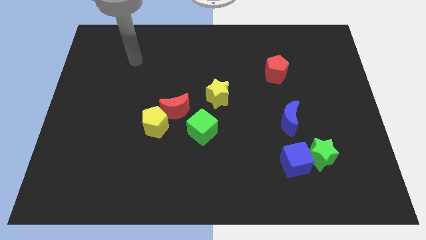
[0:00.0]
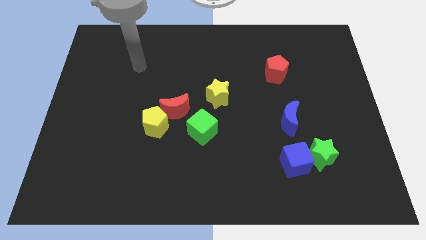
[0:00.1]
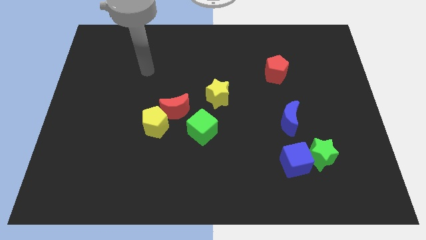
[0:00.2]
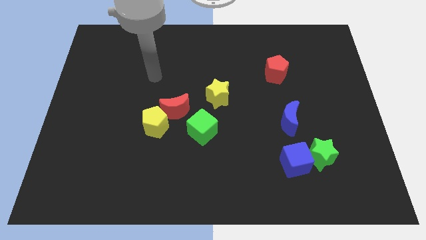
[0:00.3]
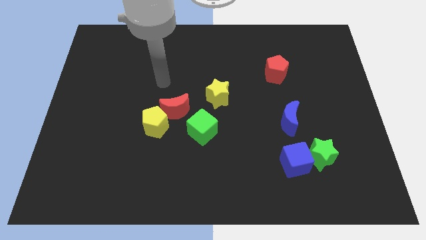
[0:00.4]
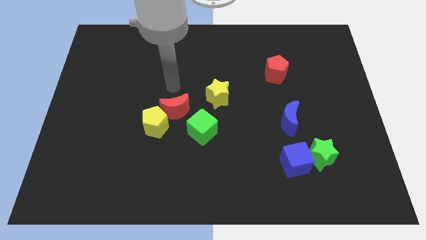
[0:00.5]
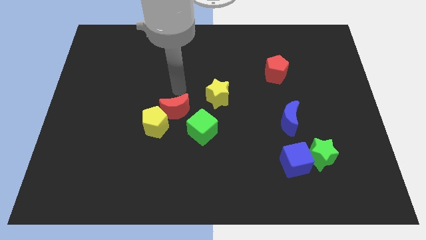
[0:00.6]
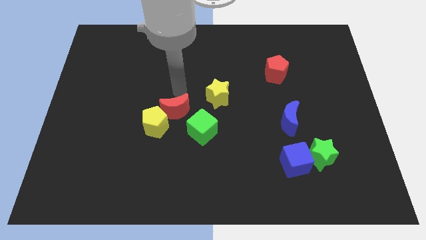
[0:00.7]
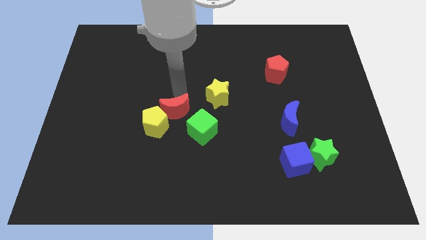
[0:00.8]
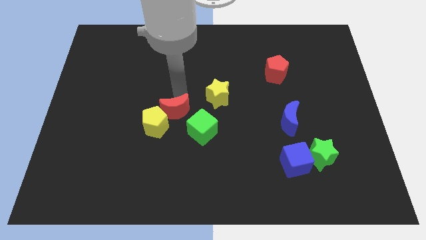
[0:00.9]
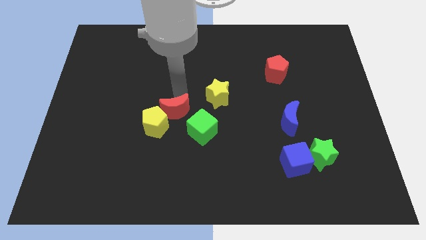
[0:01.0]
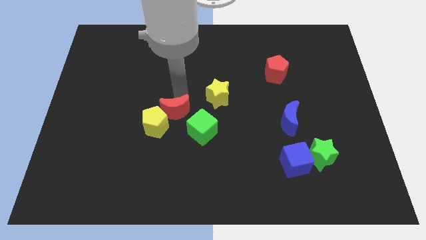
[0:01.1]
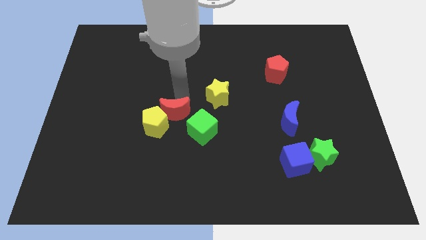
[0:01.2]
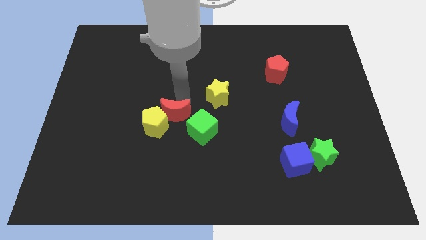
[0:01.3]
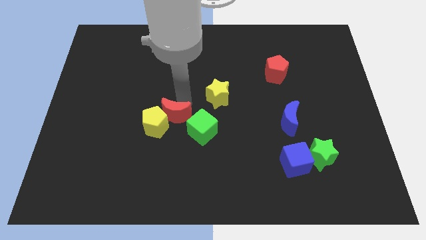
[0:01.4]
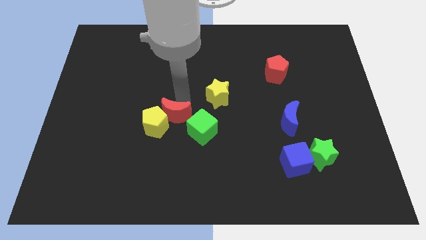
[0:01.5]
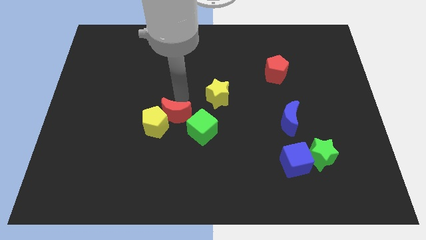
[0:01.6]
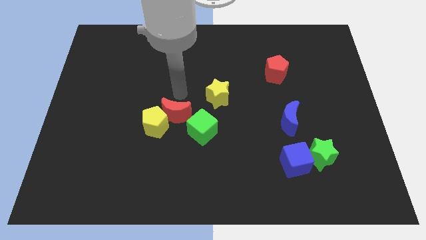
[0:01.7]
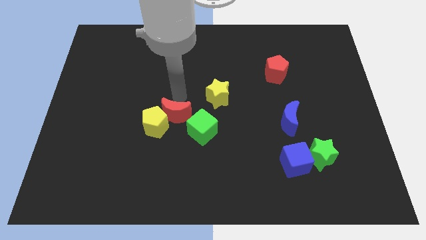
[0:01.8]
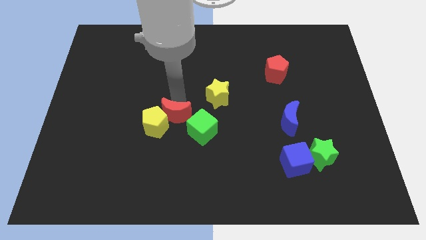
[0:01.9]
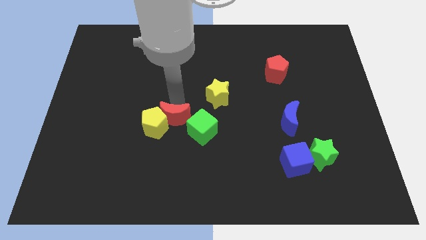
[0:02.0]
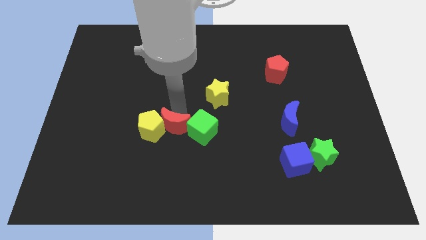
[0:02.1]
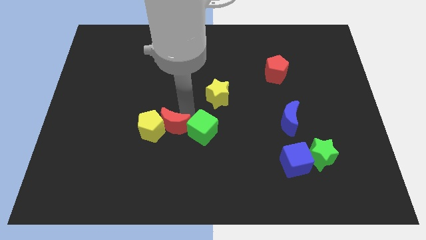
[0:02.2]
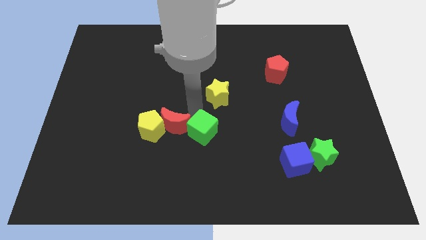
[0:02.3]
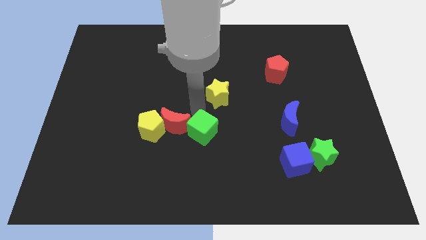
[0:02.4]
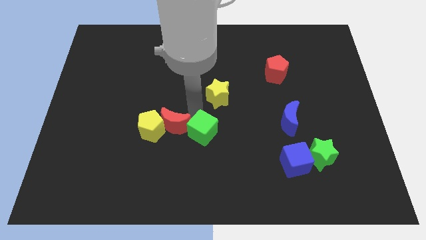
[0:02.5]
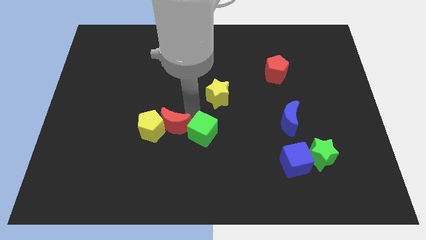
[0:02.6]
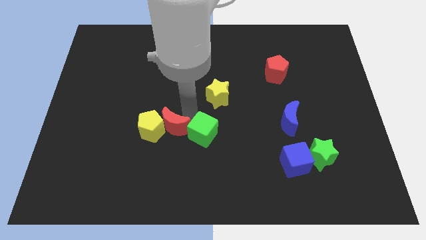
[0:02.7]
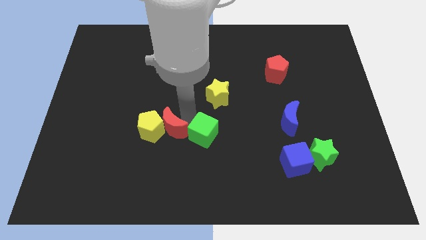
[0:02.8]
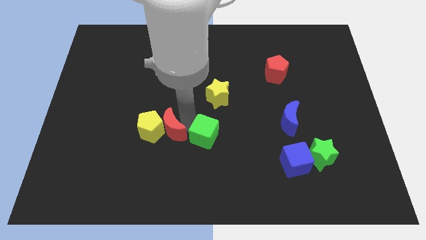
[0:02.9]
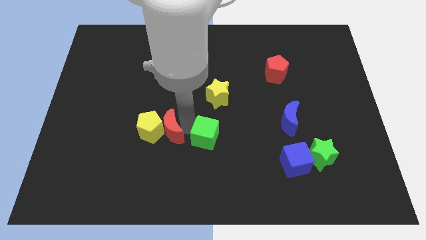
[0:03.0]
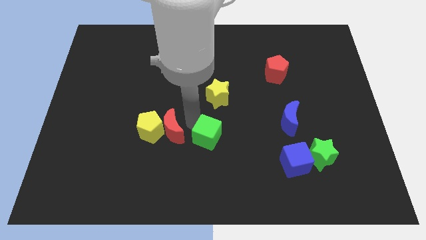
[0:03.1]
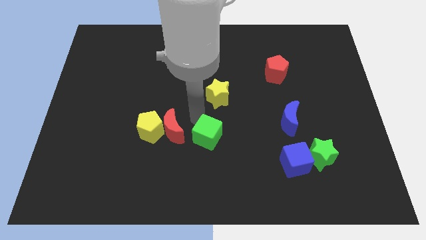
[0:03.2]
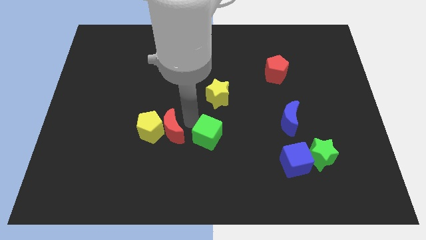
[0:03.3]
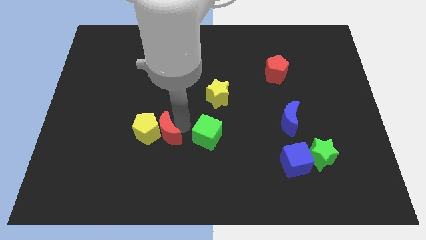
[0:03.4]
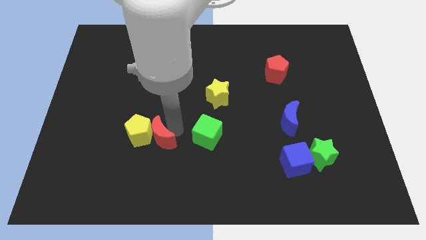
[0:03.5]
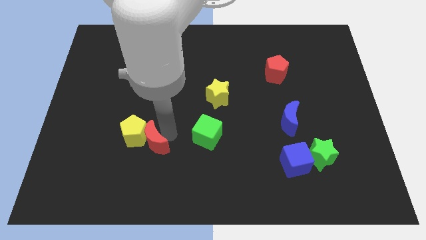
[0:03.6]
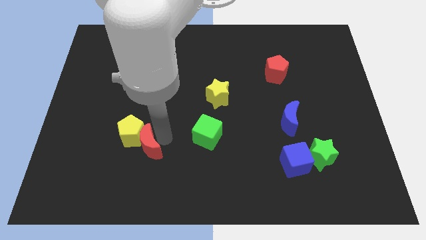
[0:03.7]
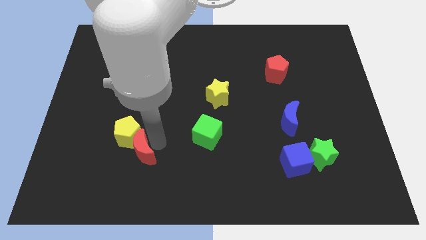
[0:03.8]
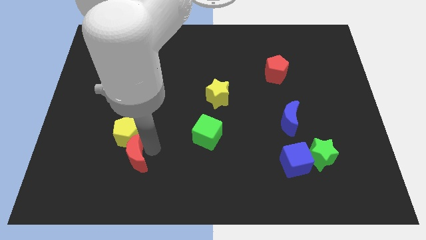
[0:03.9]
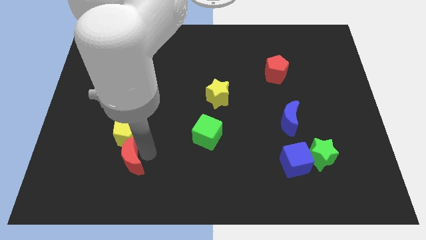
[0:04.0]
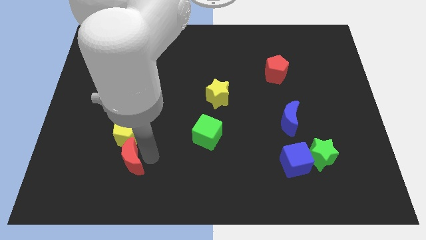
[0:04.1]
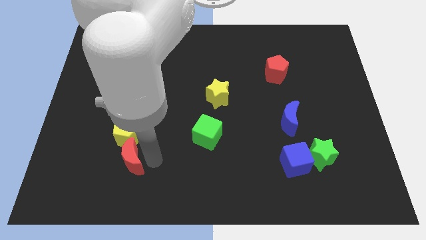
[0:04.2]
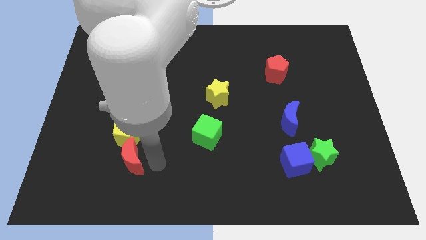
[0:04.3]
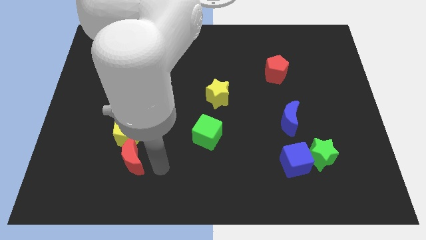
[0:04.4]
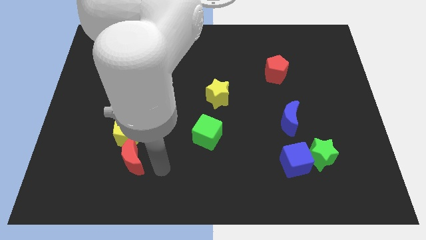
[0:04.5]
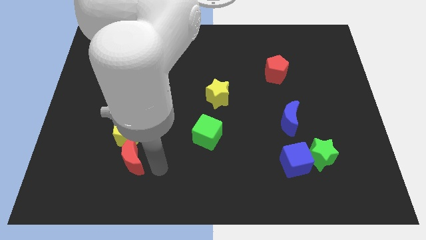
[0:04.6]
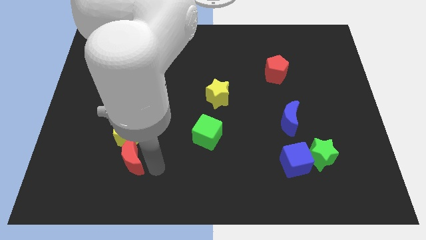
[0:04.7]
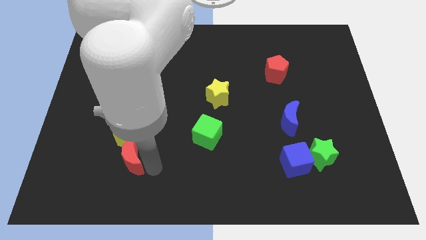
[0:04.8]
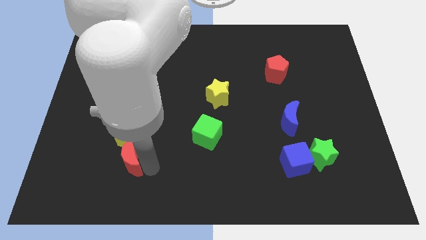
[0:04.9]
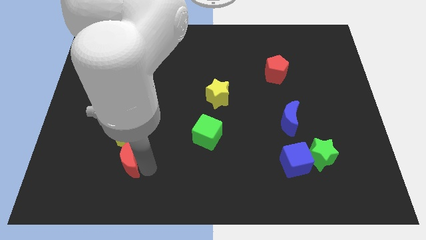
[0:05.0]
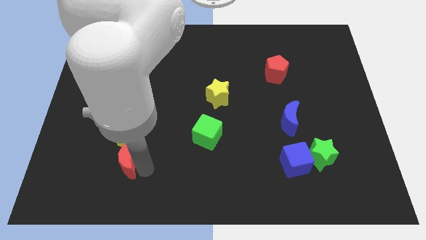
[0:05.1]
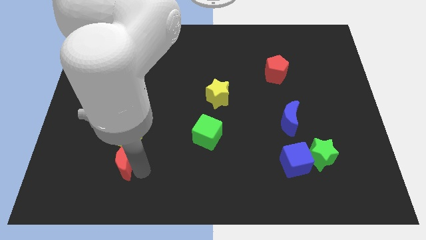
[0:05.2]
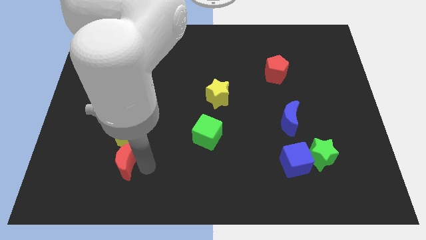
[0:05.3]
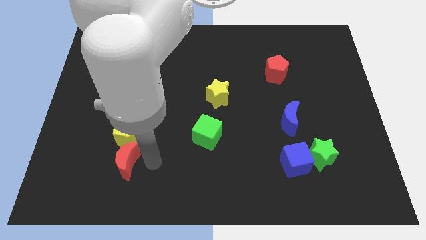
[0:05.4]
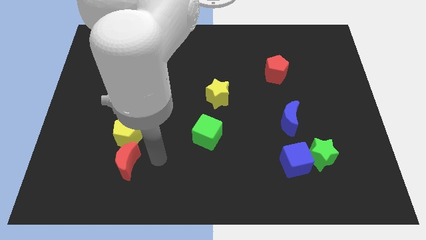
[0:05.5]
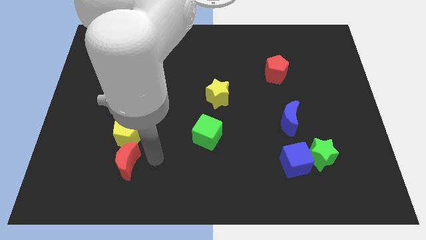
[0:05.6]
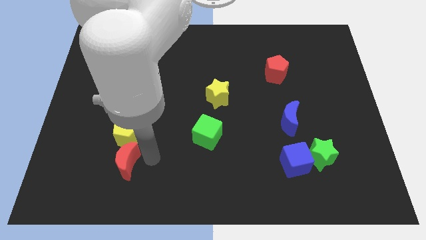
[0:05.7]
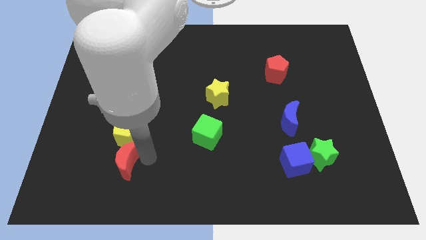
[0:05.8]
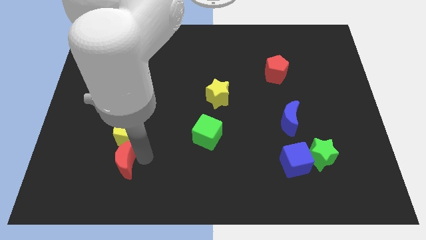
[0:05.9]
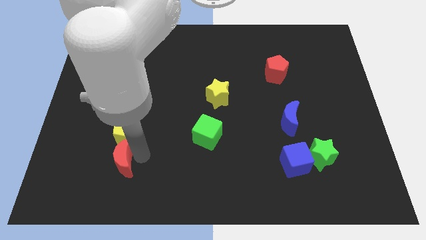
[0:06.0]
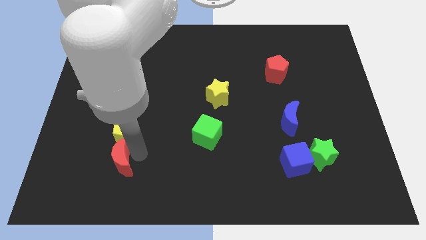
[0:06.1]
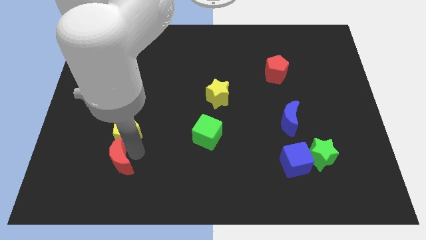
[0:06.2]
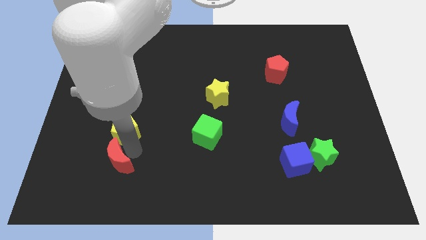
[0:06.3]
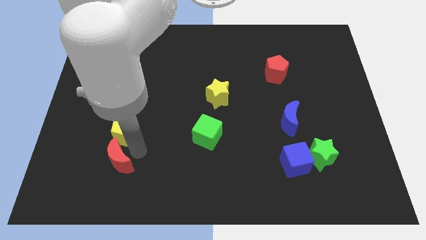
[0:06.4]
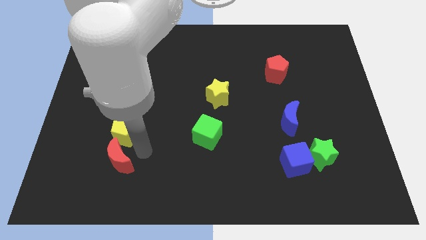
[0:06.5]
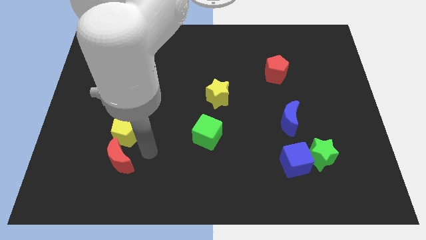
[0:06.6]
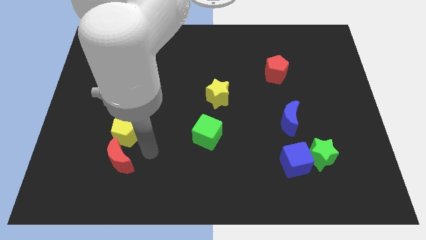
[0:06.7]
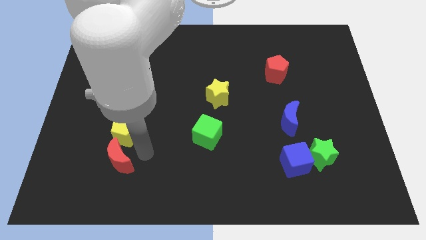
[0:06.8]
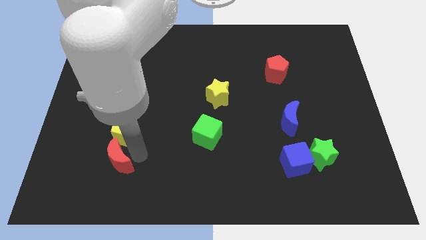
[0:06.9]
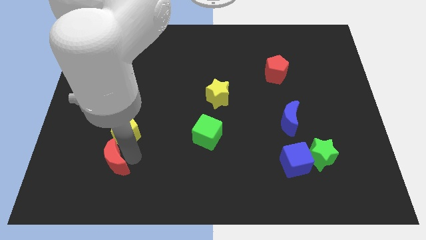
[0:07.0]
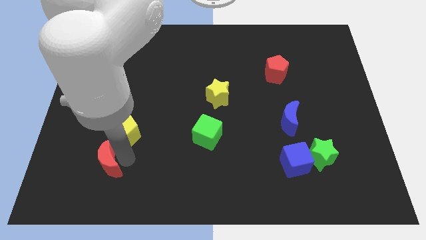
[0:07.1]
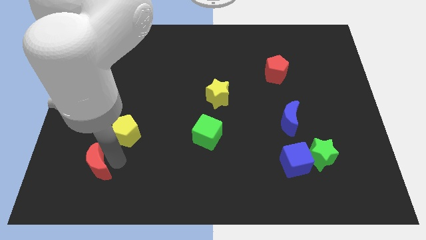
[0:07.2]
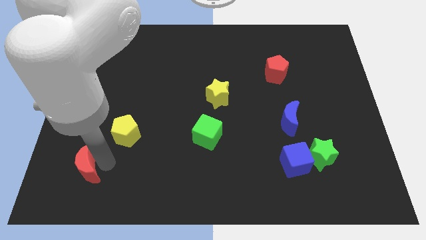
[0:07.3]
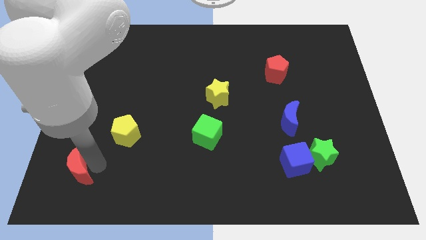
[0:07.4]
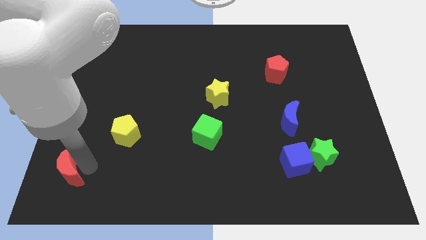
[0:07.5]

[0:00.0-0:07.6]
push the red moon to the bottom left
